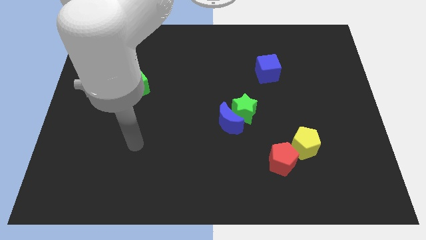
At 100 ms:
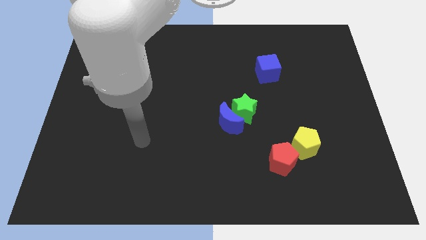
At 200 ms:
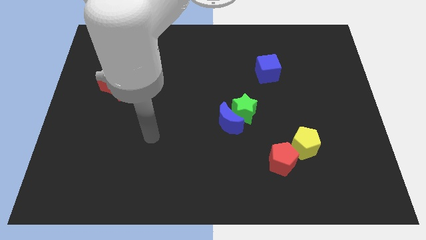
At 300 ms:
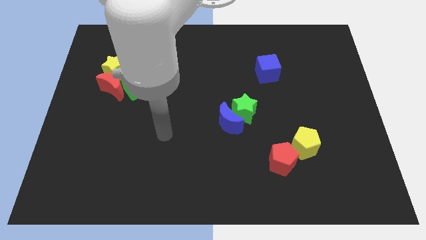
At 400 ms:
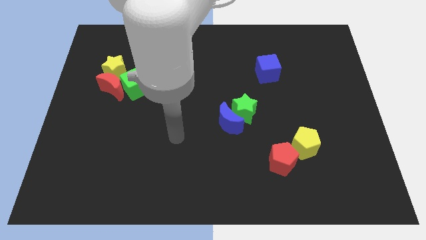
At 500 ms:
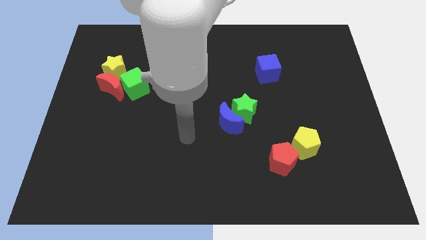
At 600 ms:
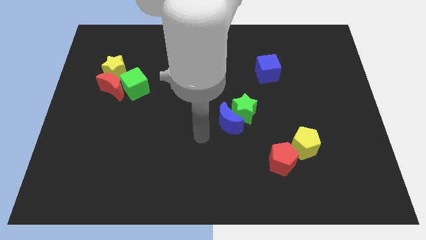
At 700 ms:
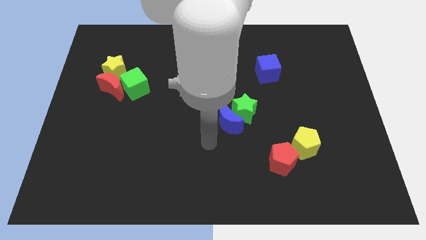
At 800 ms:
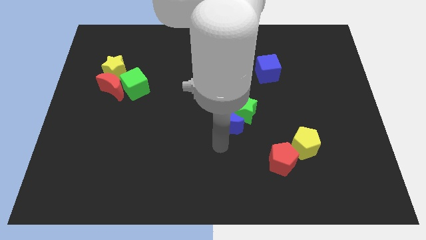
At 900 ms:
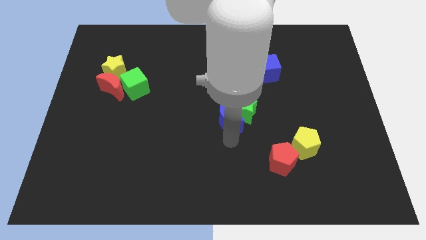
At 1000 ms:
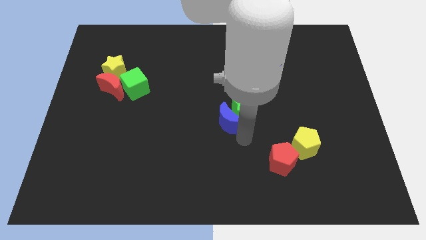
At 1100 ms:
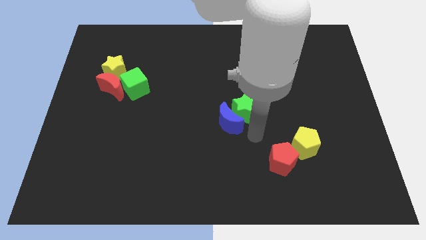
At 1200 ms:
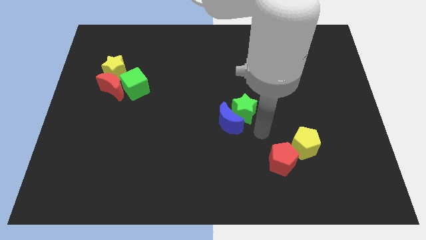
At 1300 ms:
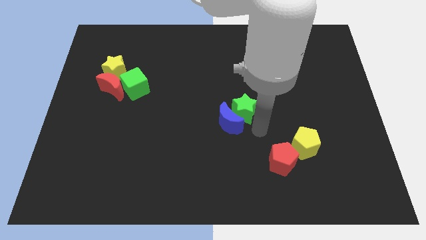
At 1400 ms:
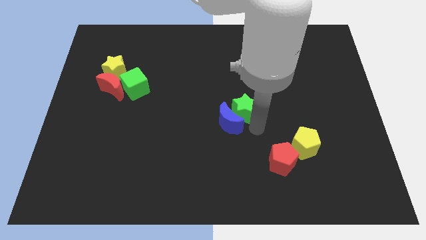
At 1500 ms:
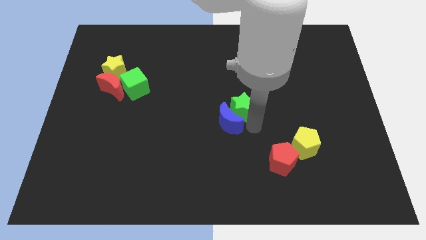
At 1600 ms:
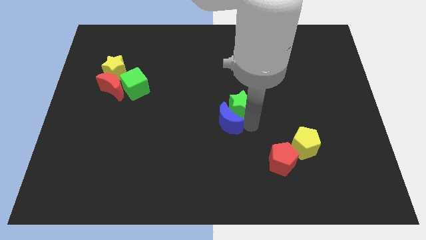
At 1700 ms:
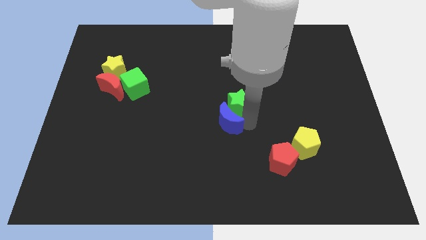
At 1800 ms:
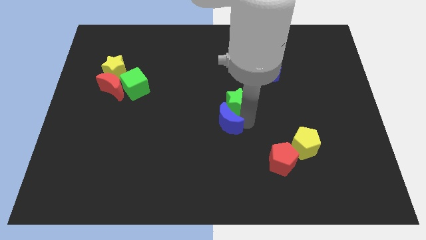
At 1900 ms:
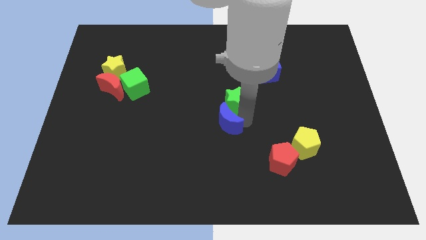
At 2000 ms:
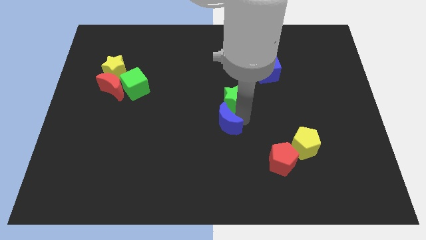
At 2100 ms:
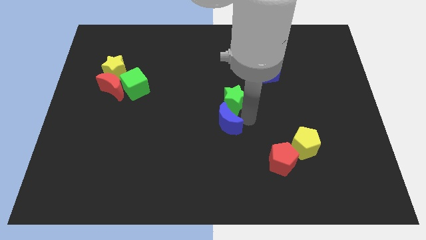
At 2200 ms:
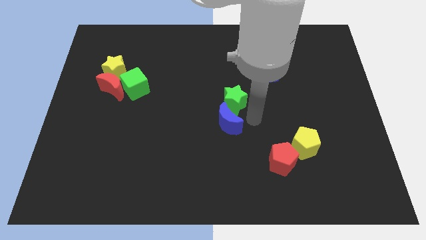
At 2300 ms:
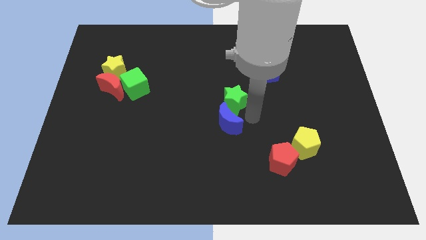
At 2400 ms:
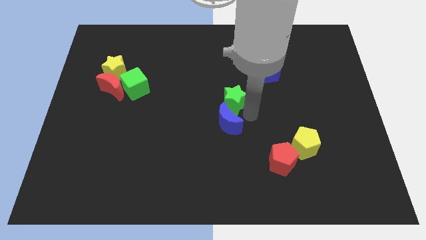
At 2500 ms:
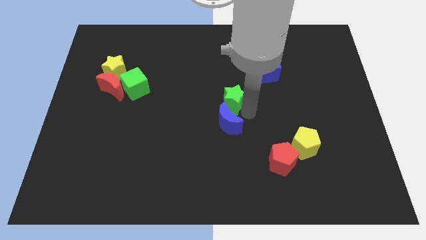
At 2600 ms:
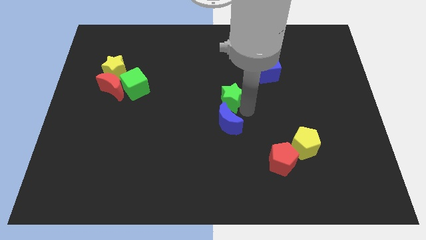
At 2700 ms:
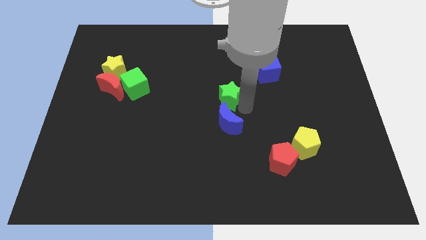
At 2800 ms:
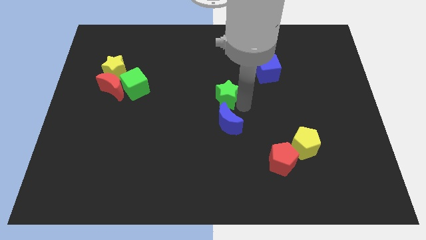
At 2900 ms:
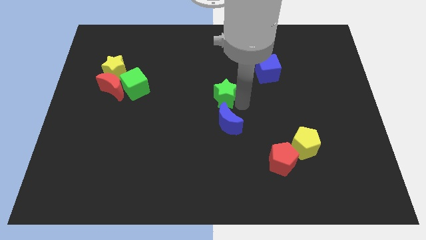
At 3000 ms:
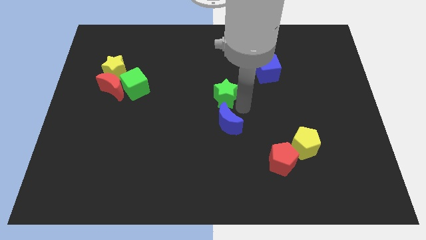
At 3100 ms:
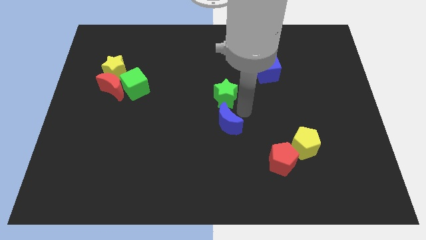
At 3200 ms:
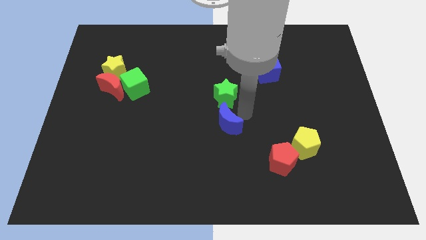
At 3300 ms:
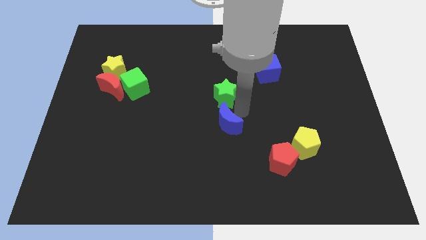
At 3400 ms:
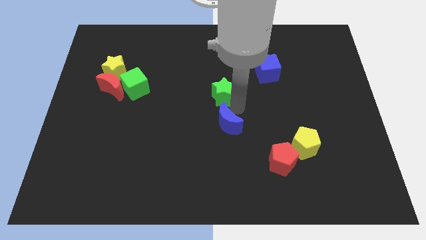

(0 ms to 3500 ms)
push the green star a little up and left

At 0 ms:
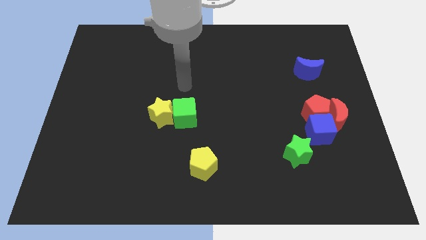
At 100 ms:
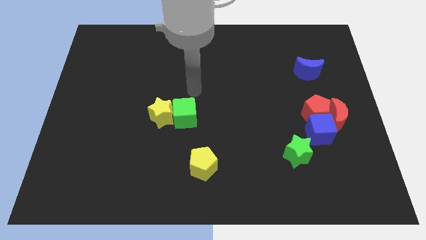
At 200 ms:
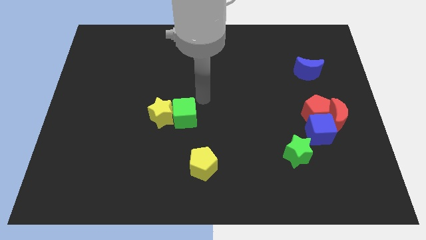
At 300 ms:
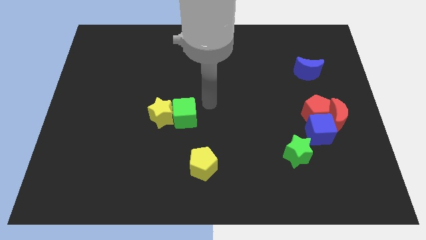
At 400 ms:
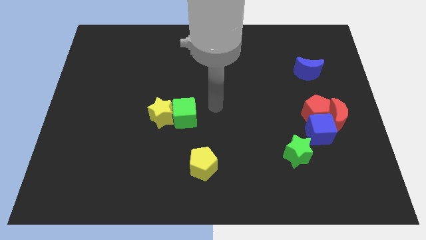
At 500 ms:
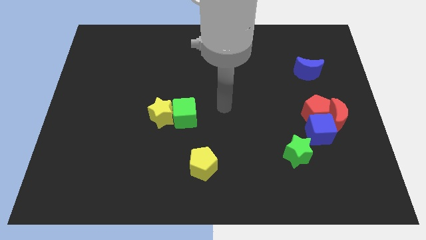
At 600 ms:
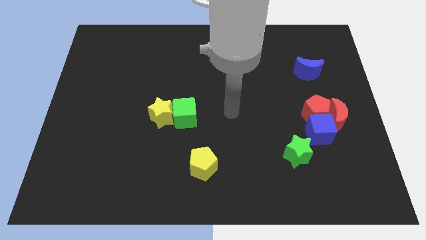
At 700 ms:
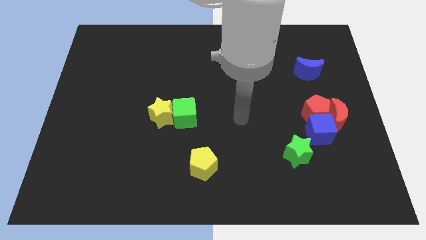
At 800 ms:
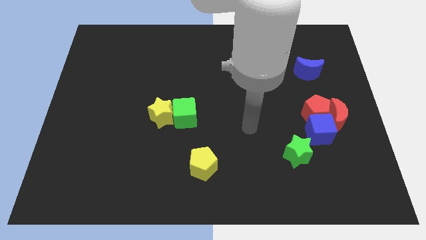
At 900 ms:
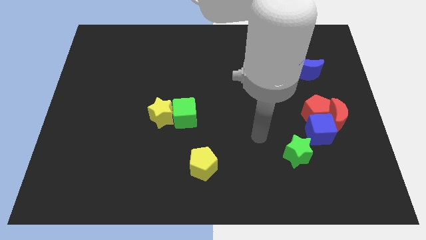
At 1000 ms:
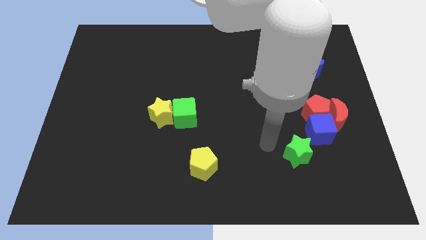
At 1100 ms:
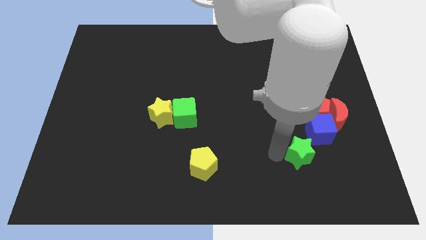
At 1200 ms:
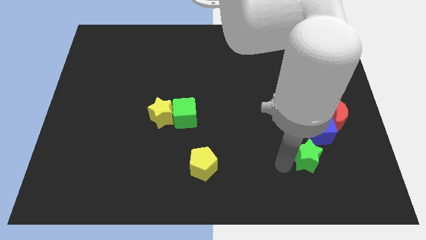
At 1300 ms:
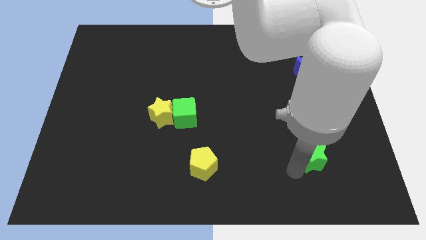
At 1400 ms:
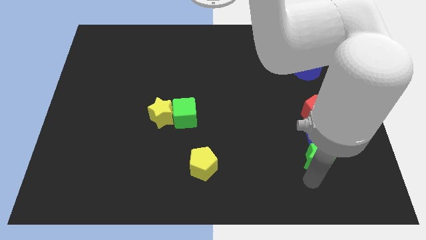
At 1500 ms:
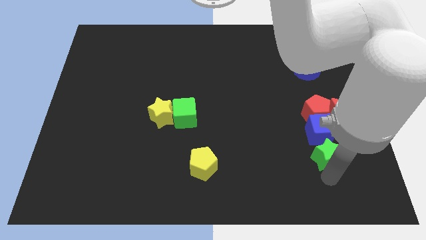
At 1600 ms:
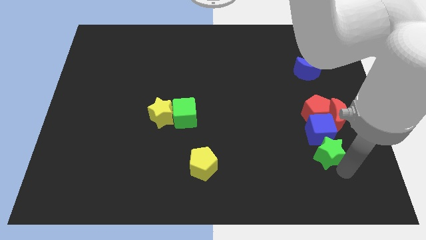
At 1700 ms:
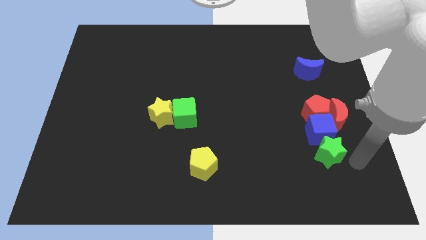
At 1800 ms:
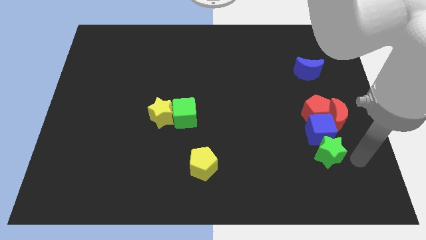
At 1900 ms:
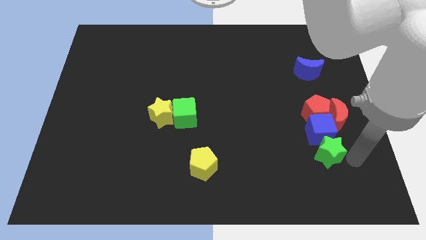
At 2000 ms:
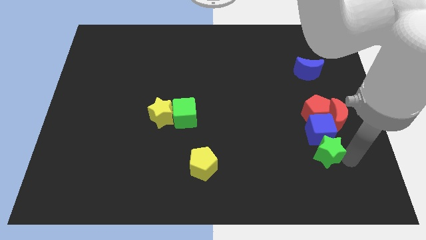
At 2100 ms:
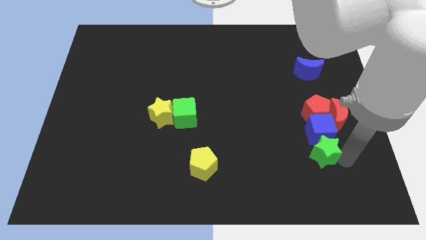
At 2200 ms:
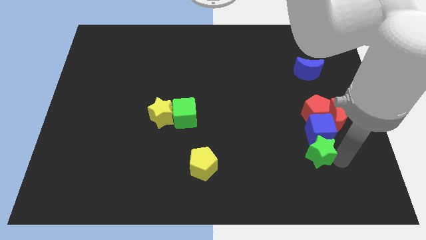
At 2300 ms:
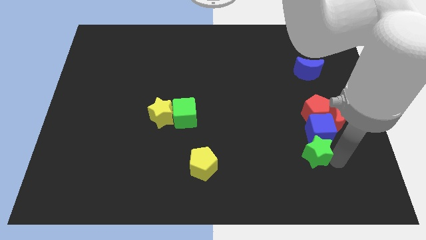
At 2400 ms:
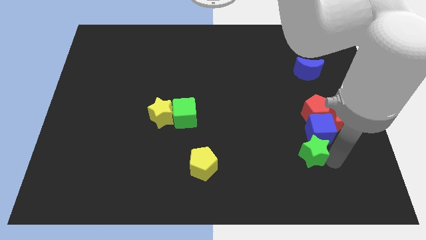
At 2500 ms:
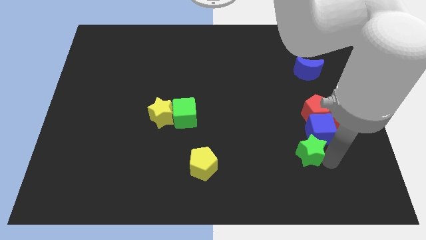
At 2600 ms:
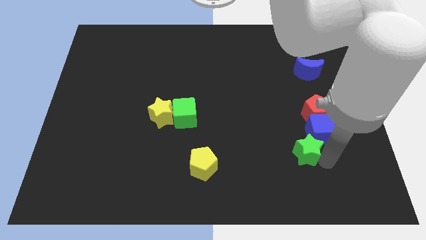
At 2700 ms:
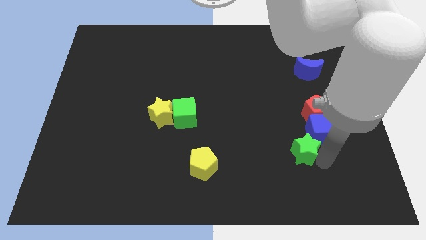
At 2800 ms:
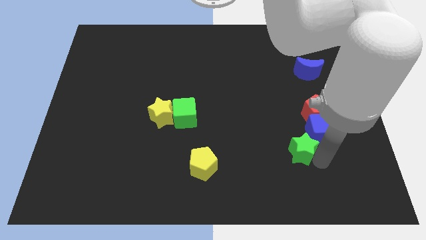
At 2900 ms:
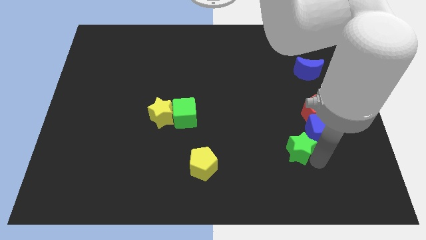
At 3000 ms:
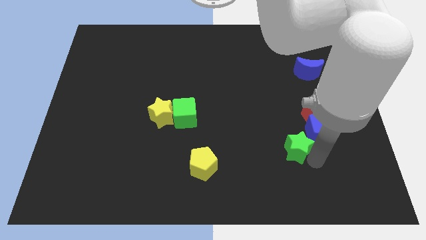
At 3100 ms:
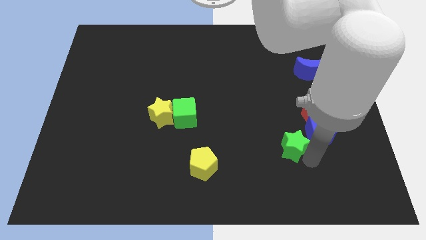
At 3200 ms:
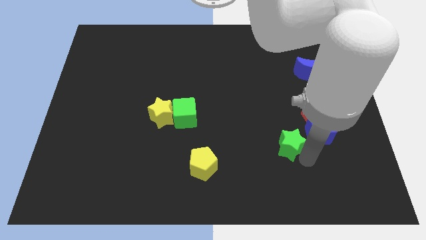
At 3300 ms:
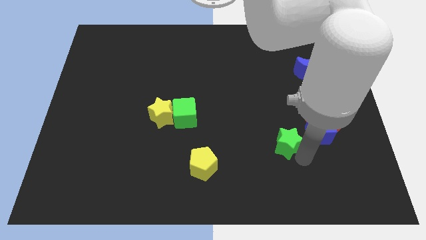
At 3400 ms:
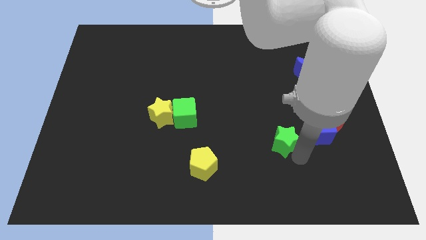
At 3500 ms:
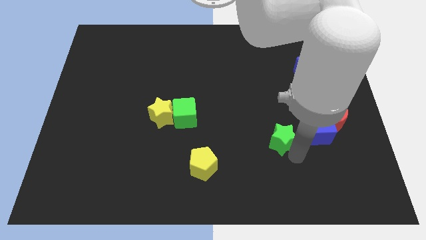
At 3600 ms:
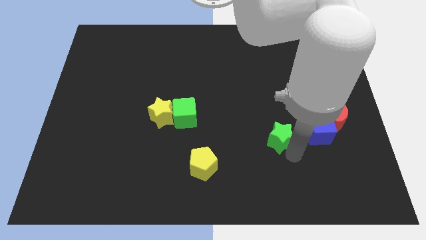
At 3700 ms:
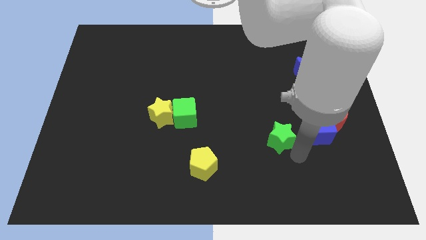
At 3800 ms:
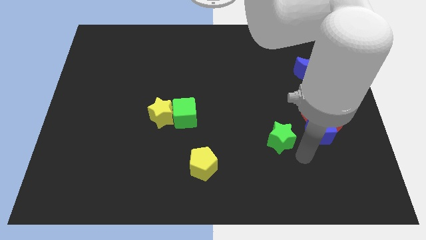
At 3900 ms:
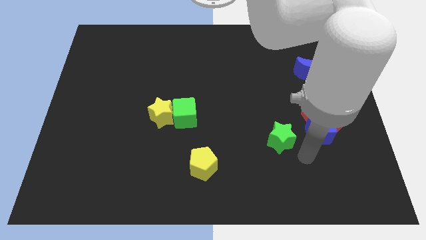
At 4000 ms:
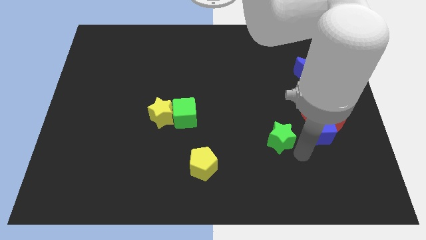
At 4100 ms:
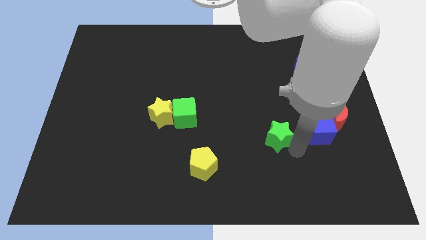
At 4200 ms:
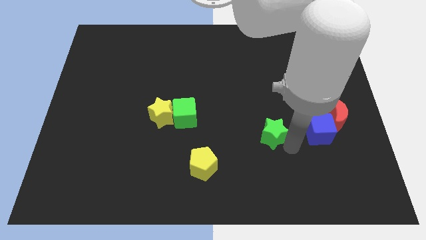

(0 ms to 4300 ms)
push the green star diagonally upwards and left a bit
